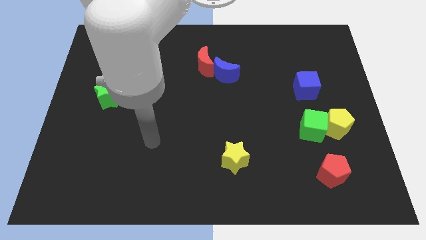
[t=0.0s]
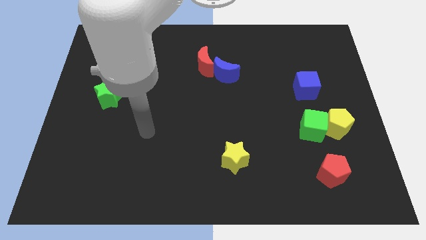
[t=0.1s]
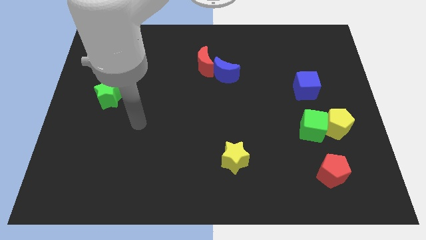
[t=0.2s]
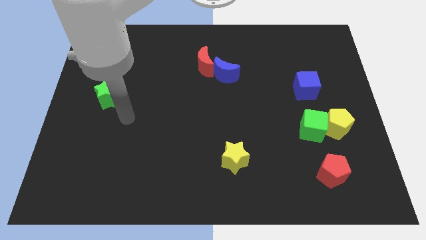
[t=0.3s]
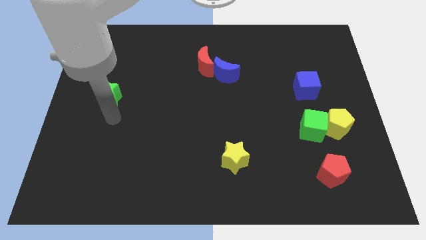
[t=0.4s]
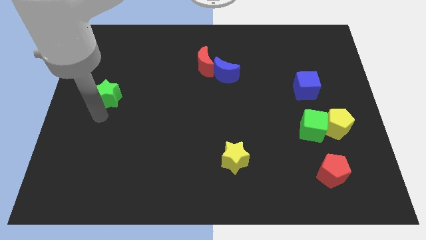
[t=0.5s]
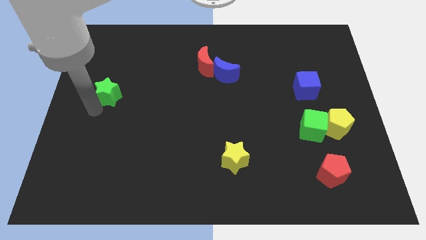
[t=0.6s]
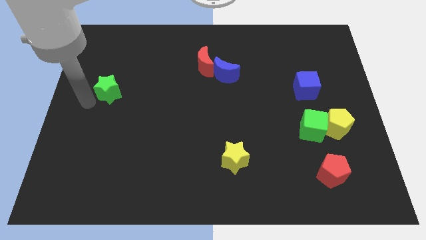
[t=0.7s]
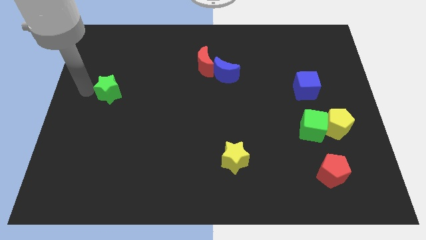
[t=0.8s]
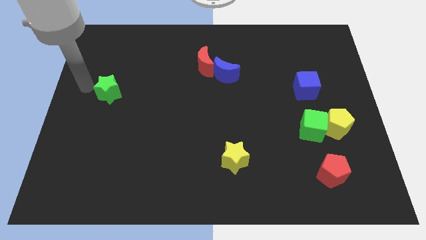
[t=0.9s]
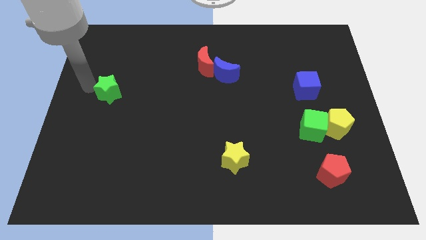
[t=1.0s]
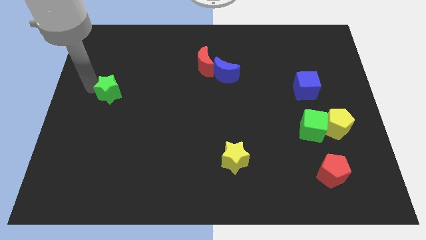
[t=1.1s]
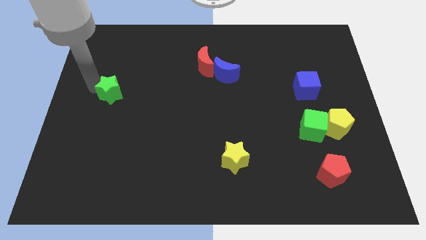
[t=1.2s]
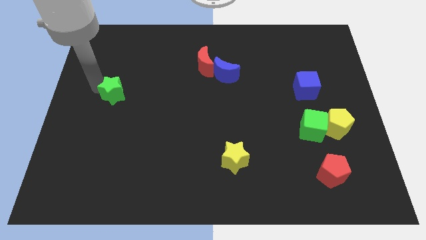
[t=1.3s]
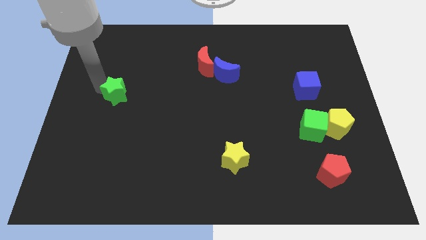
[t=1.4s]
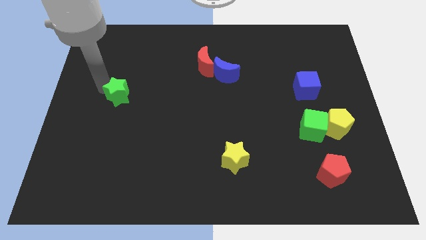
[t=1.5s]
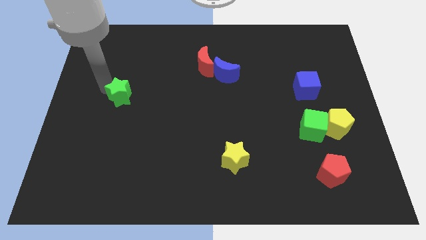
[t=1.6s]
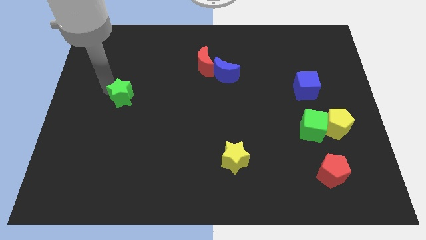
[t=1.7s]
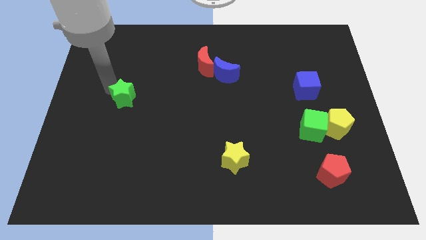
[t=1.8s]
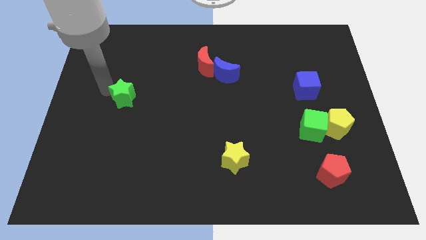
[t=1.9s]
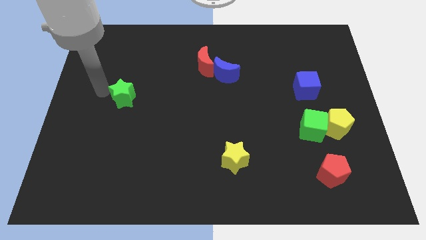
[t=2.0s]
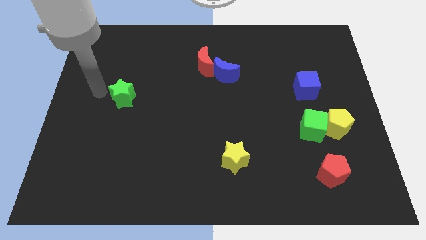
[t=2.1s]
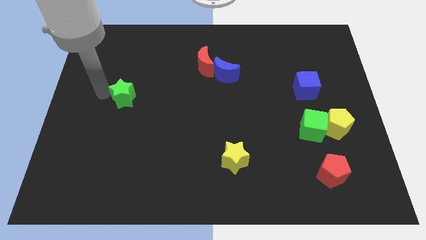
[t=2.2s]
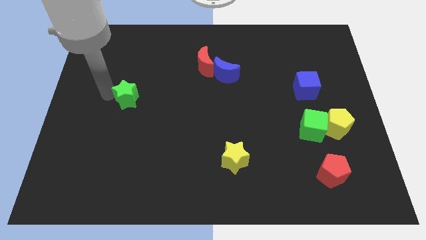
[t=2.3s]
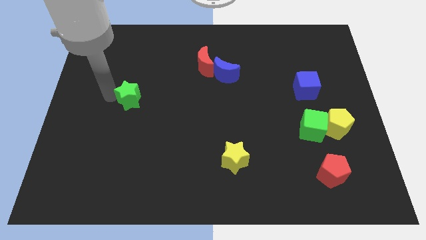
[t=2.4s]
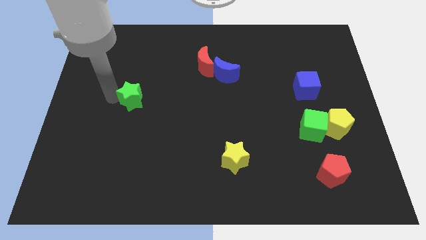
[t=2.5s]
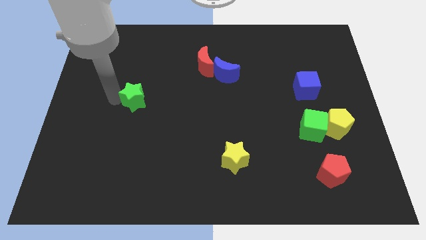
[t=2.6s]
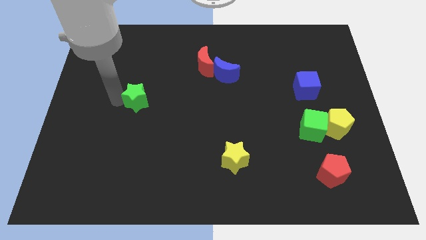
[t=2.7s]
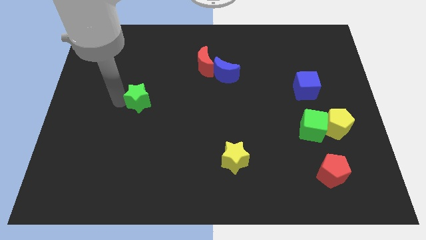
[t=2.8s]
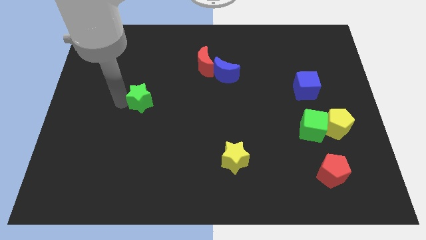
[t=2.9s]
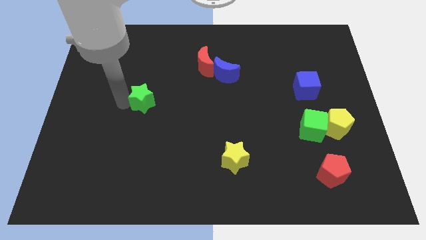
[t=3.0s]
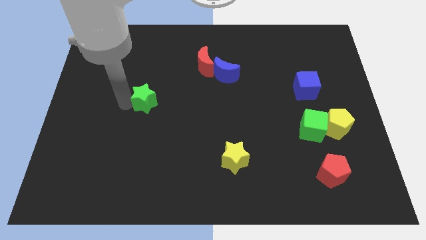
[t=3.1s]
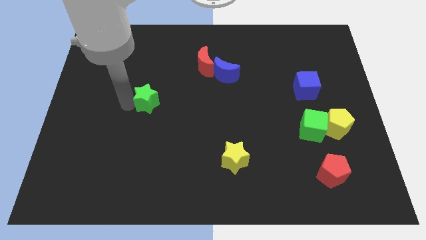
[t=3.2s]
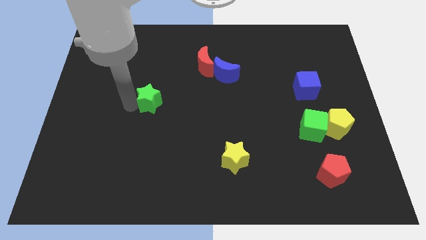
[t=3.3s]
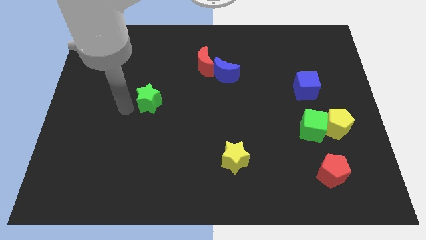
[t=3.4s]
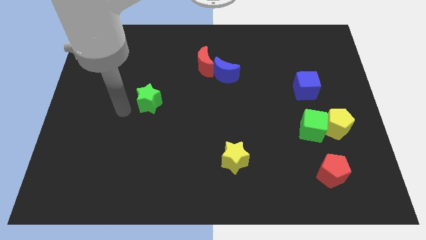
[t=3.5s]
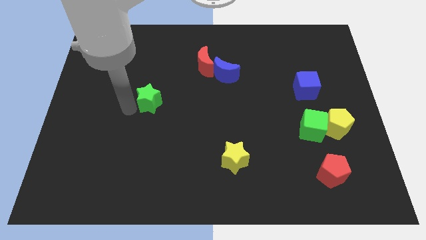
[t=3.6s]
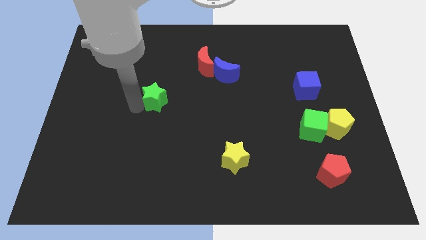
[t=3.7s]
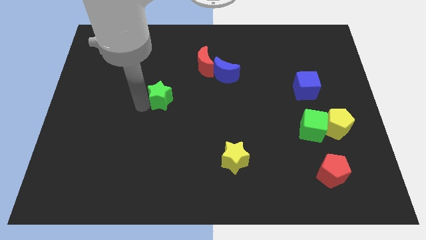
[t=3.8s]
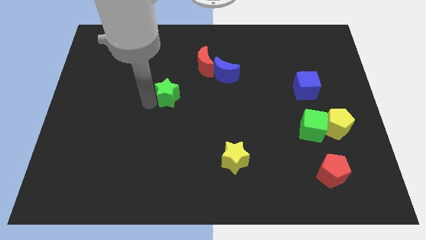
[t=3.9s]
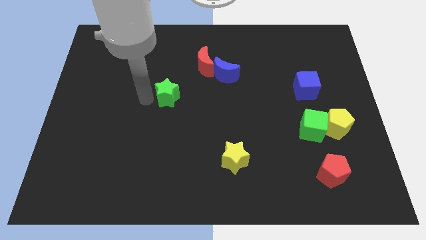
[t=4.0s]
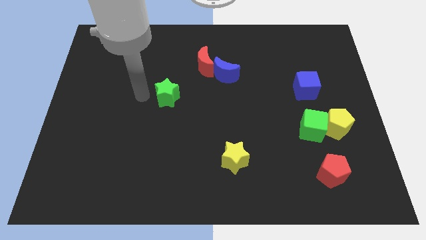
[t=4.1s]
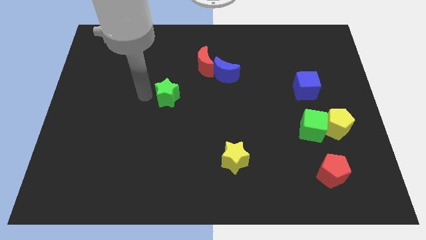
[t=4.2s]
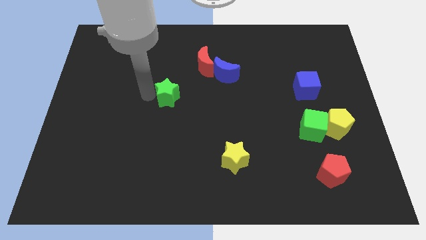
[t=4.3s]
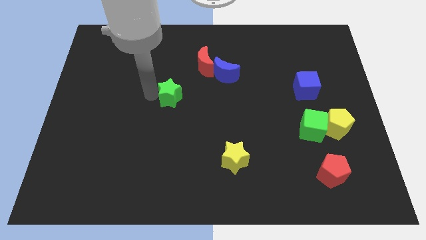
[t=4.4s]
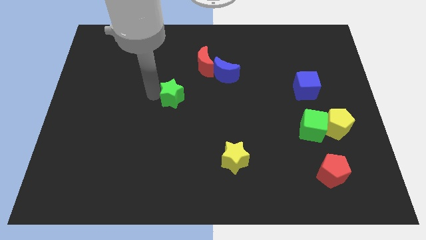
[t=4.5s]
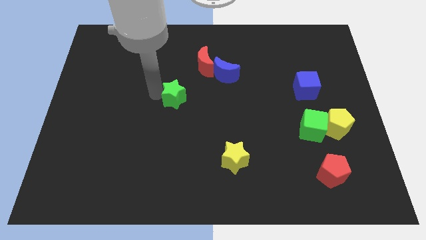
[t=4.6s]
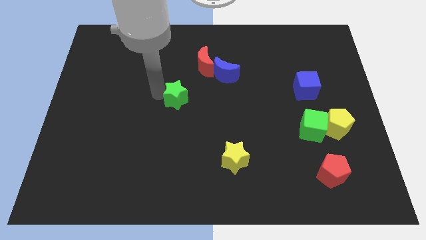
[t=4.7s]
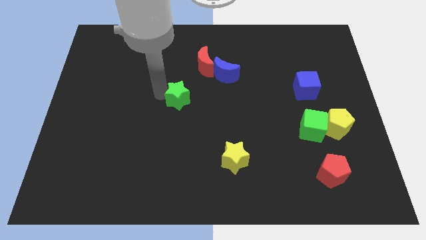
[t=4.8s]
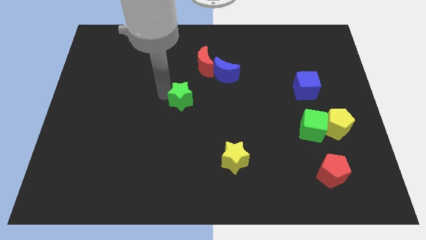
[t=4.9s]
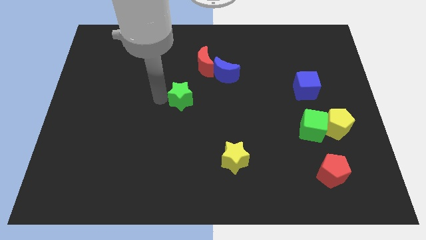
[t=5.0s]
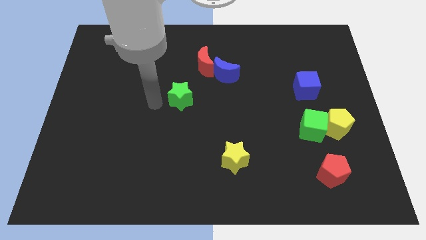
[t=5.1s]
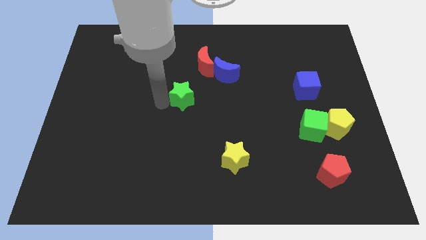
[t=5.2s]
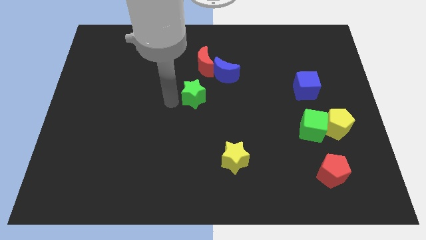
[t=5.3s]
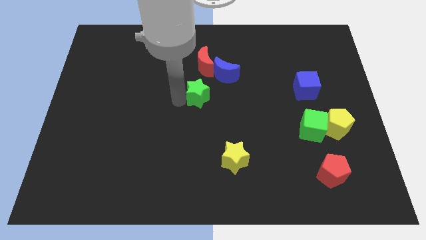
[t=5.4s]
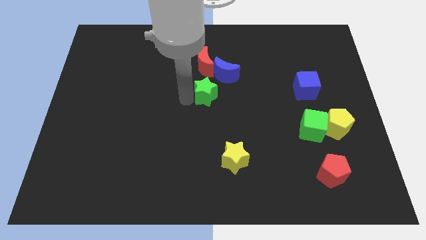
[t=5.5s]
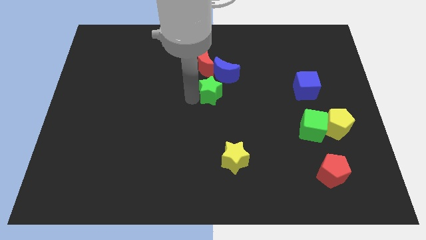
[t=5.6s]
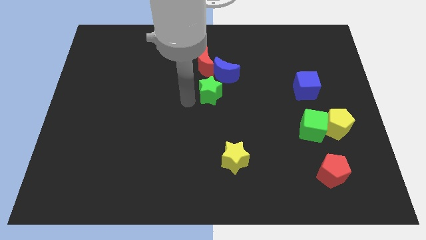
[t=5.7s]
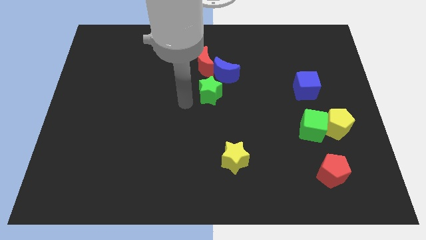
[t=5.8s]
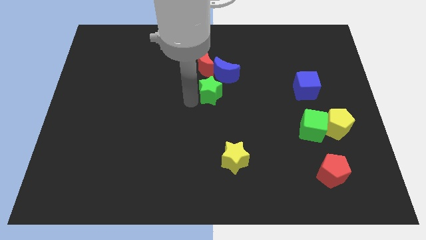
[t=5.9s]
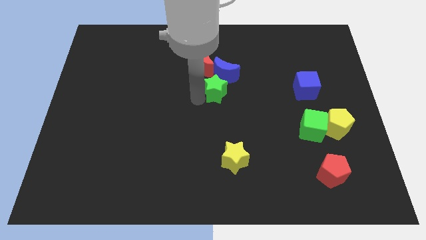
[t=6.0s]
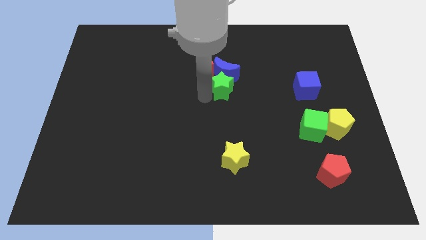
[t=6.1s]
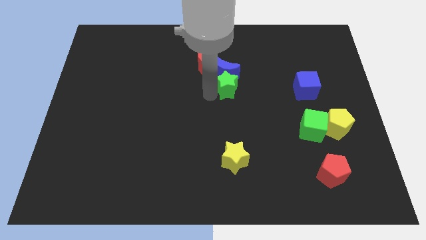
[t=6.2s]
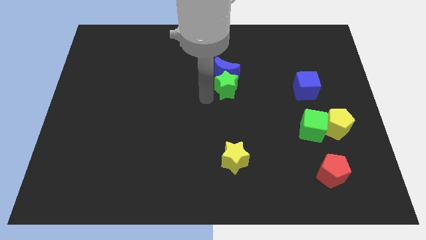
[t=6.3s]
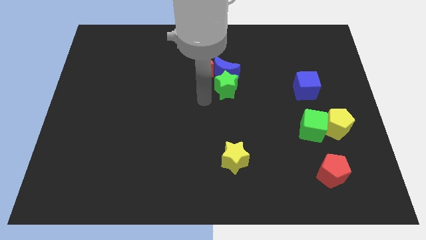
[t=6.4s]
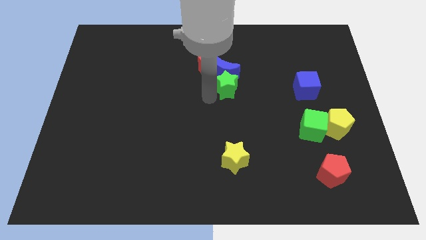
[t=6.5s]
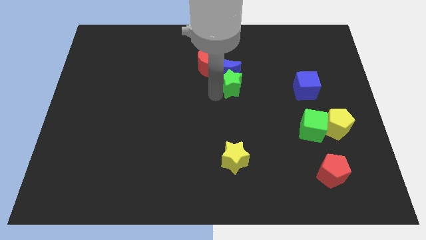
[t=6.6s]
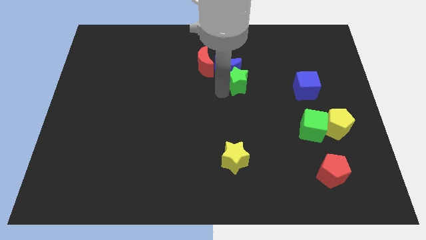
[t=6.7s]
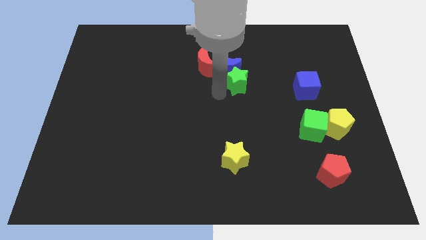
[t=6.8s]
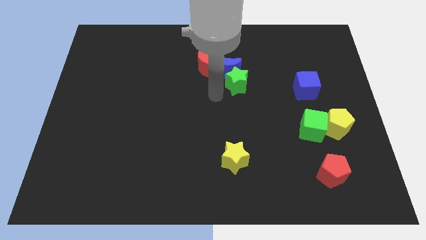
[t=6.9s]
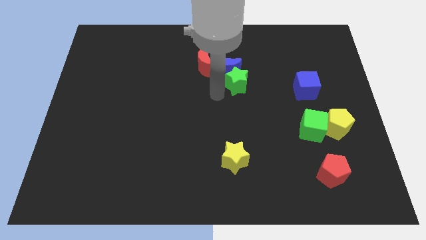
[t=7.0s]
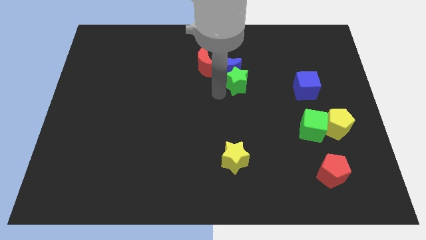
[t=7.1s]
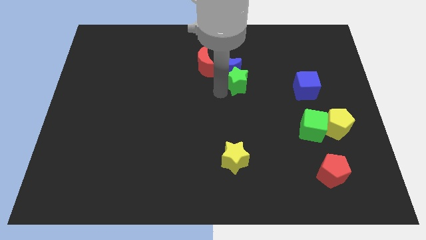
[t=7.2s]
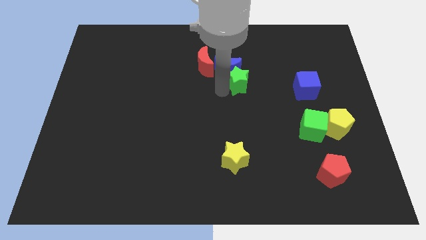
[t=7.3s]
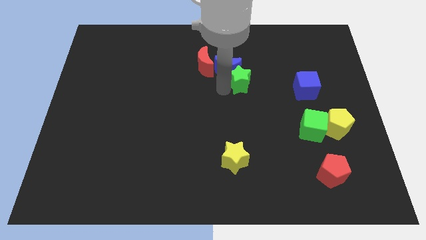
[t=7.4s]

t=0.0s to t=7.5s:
put the green star right of the blue moon
